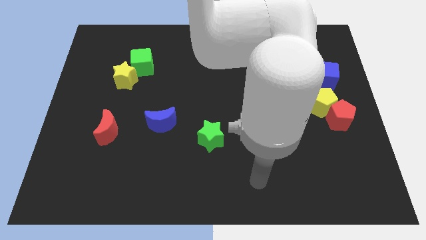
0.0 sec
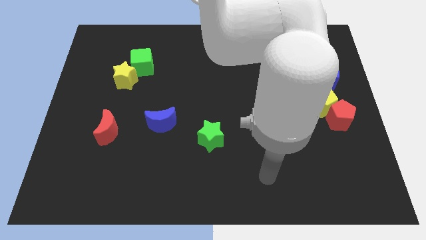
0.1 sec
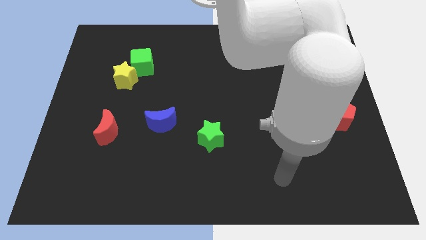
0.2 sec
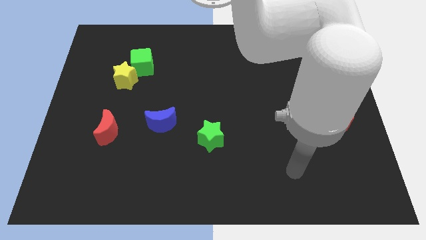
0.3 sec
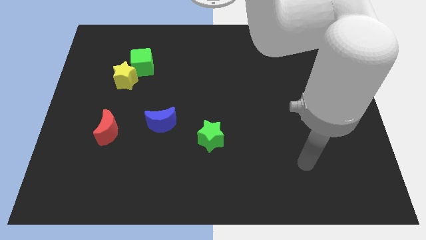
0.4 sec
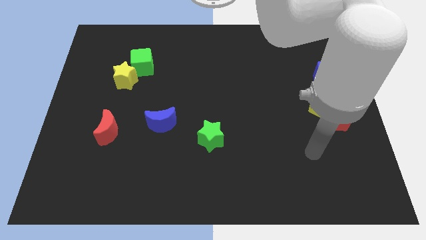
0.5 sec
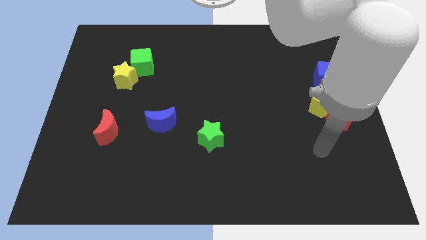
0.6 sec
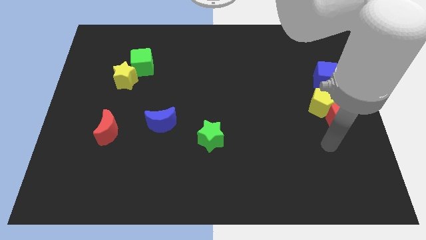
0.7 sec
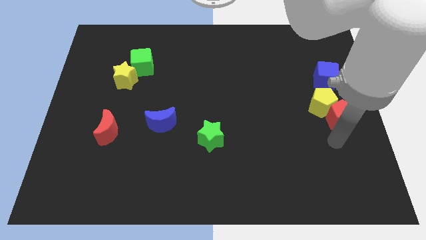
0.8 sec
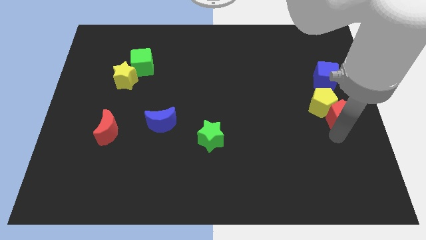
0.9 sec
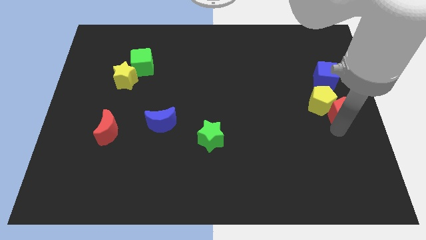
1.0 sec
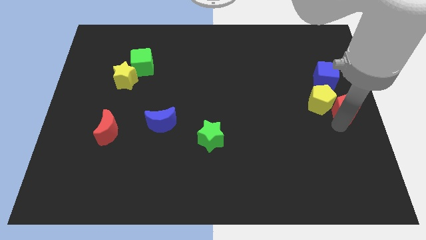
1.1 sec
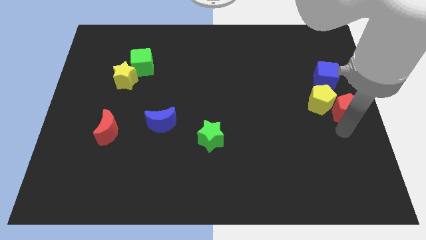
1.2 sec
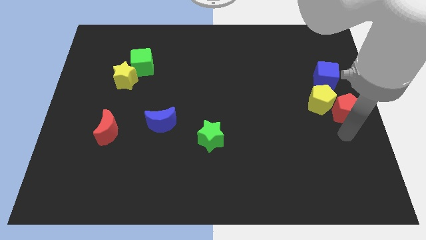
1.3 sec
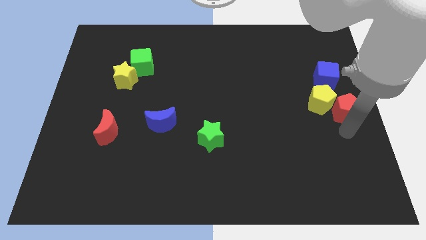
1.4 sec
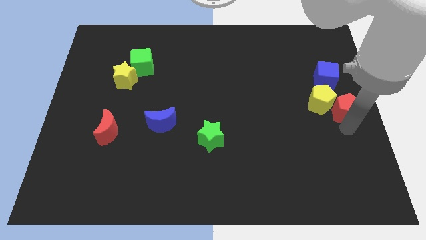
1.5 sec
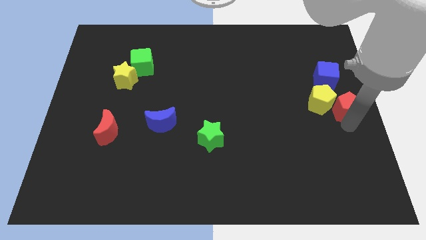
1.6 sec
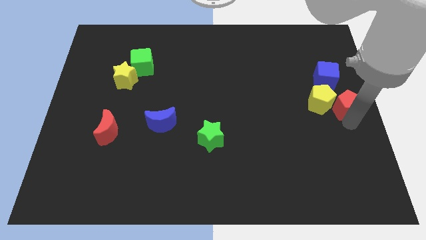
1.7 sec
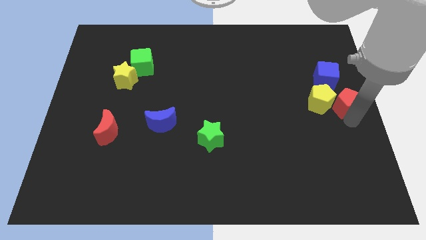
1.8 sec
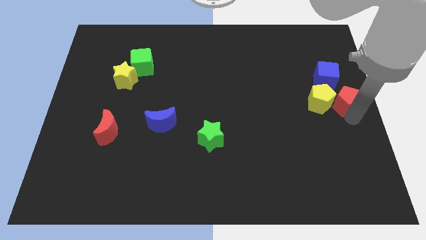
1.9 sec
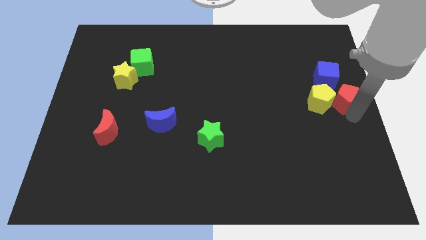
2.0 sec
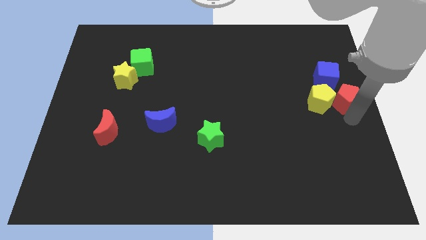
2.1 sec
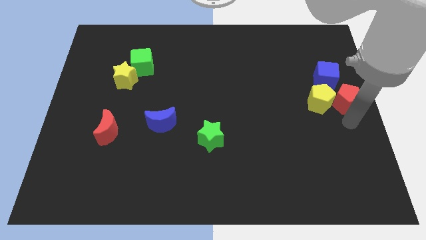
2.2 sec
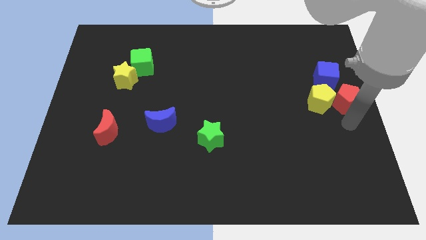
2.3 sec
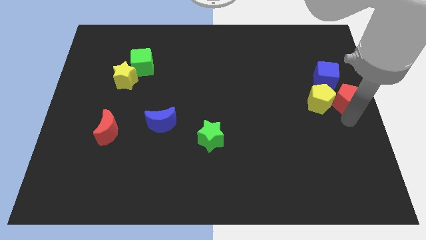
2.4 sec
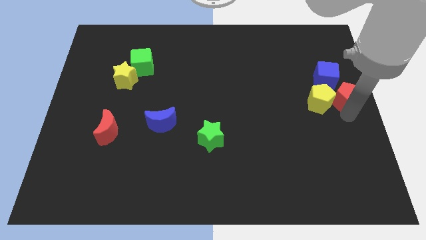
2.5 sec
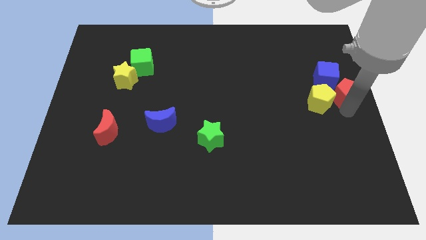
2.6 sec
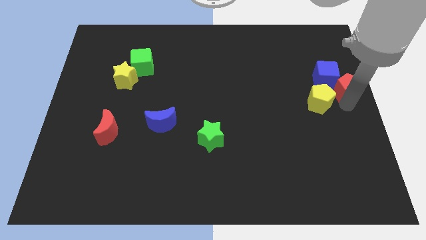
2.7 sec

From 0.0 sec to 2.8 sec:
slide the red pentagon upwards slightly

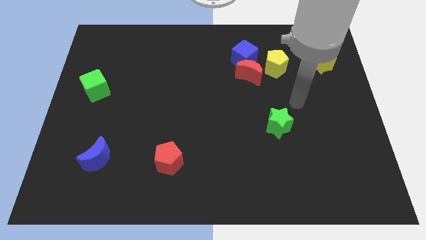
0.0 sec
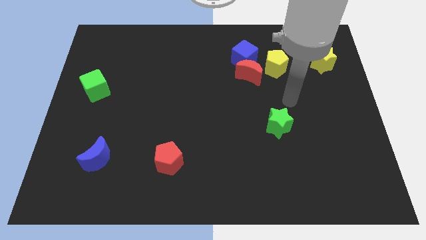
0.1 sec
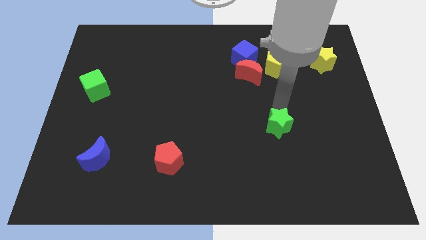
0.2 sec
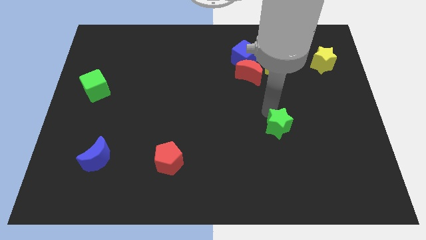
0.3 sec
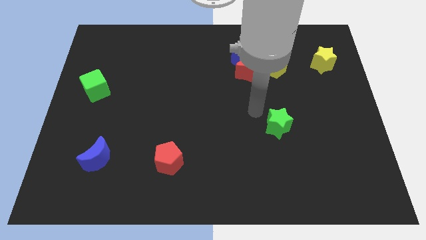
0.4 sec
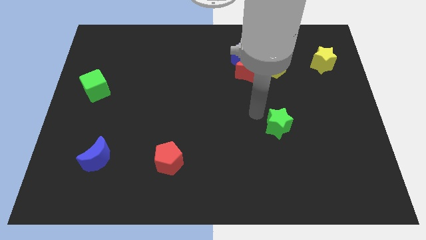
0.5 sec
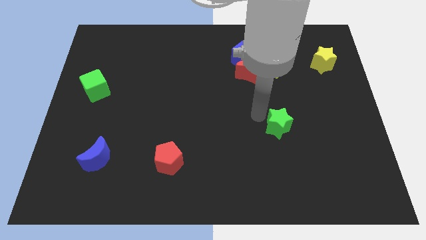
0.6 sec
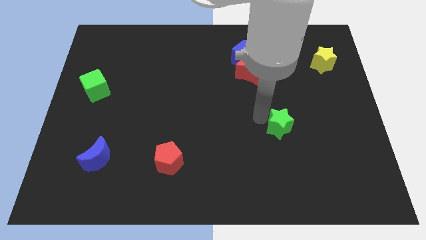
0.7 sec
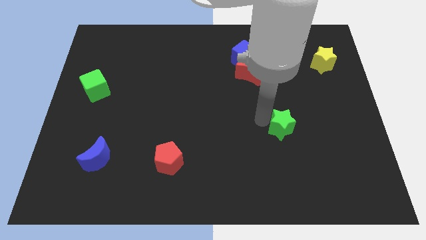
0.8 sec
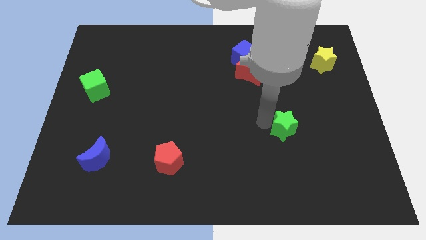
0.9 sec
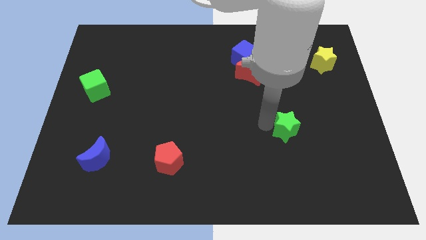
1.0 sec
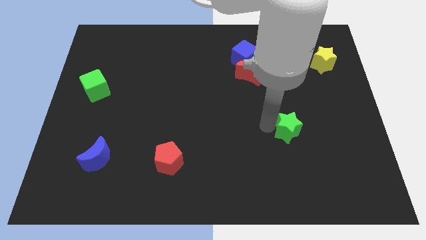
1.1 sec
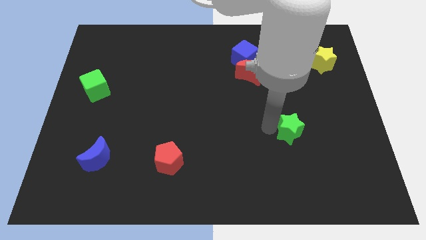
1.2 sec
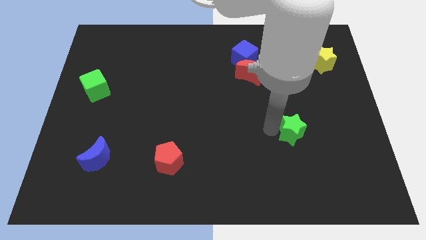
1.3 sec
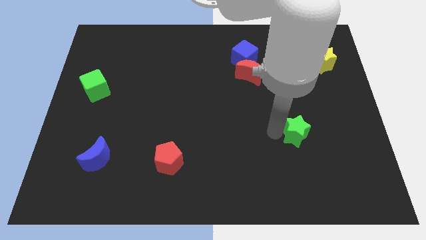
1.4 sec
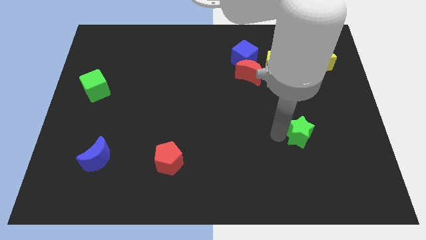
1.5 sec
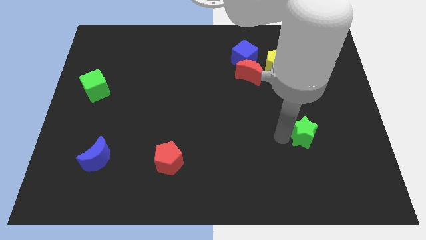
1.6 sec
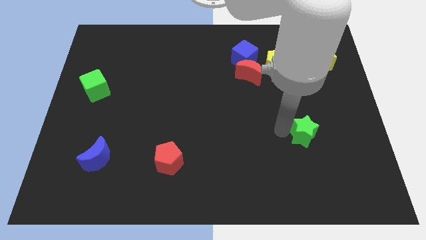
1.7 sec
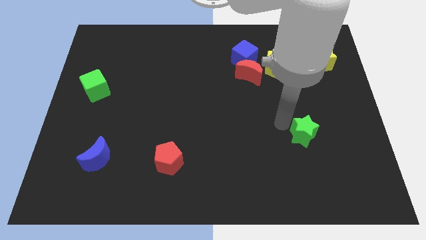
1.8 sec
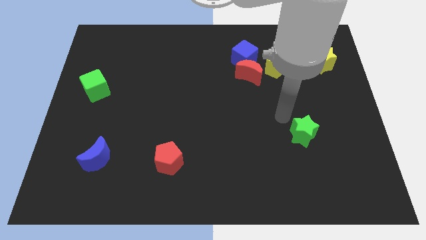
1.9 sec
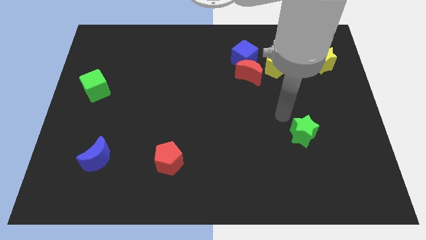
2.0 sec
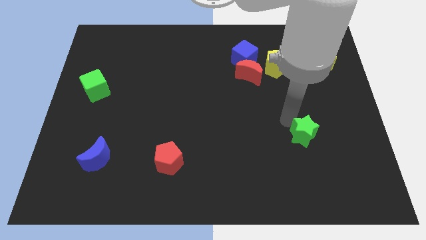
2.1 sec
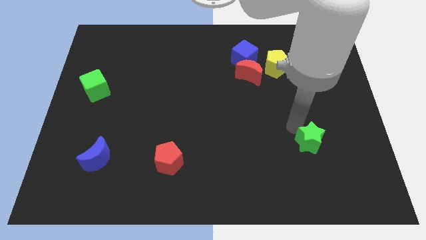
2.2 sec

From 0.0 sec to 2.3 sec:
slightly slide the green star diagonally down and to the right

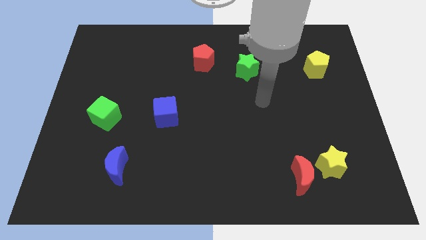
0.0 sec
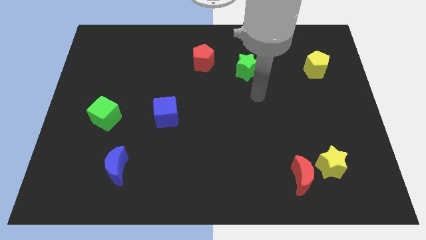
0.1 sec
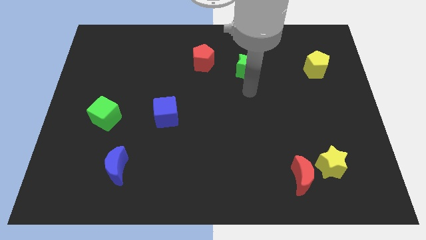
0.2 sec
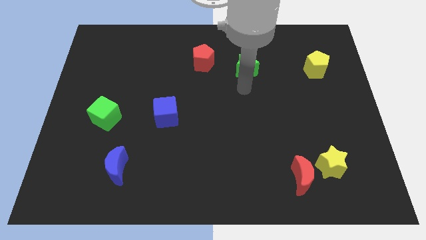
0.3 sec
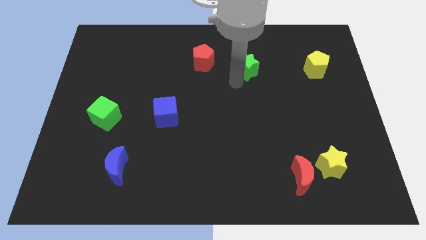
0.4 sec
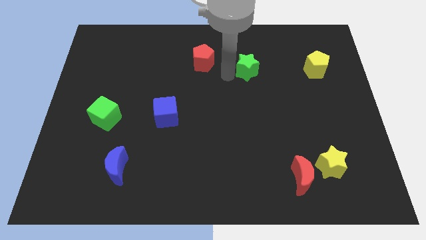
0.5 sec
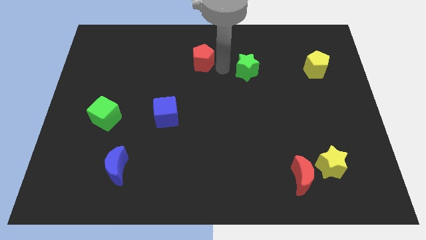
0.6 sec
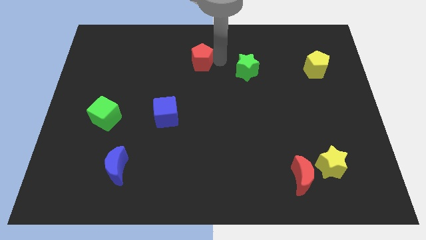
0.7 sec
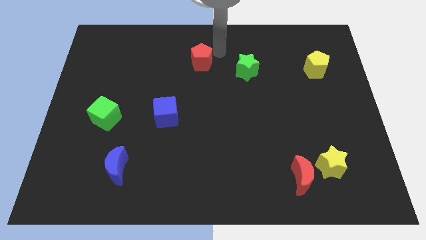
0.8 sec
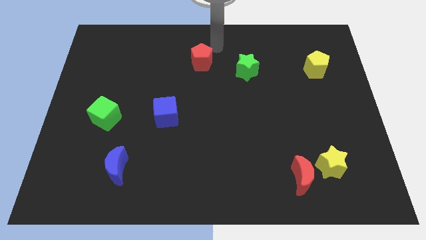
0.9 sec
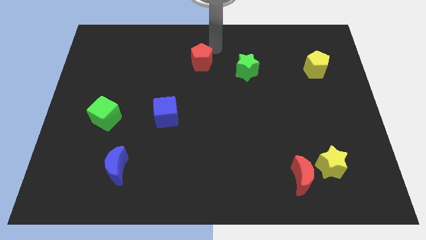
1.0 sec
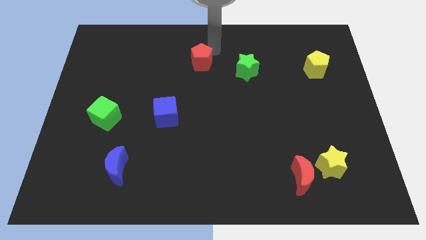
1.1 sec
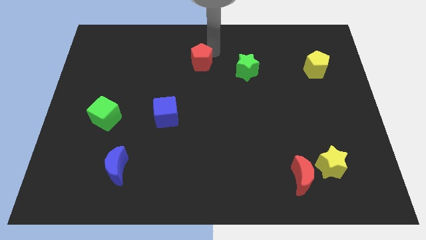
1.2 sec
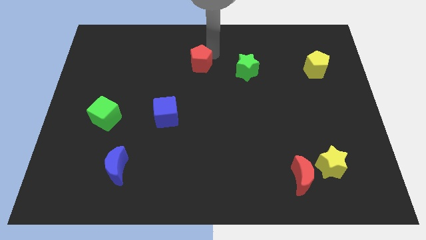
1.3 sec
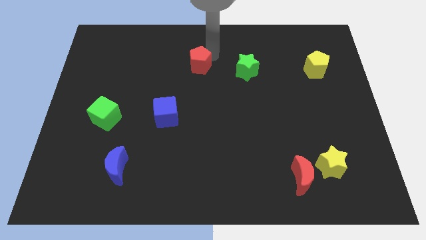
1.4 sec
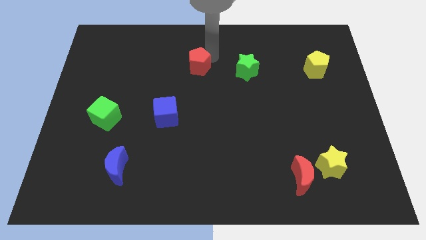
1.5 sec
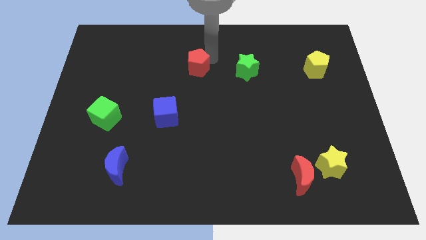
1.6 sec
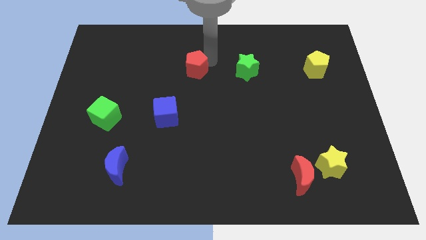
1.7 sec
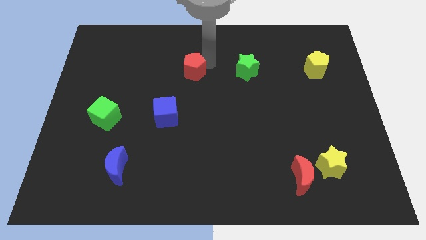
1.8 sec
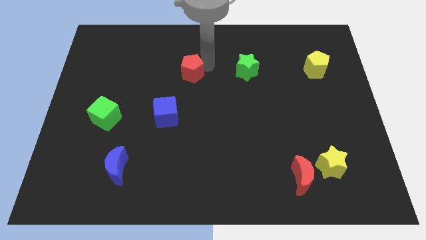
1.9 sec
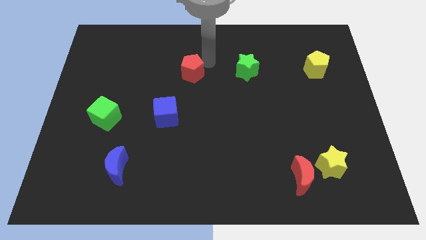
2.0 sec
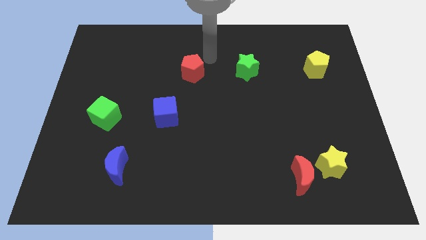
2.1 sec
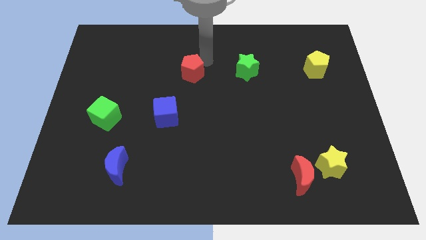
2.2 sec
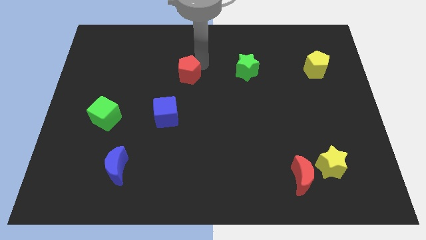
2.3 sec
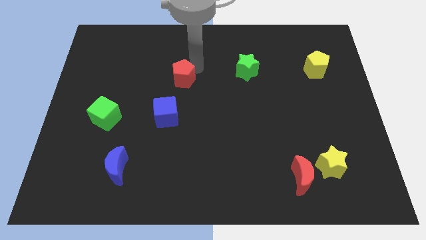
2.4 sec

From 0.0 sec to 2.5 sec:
slide the red pentagon down and left diagonally somewhat

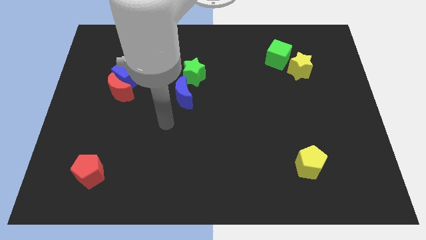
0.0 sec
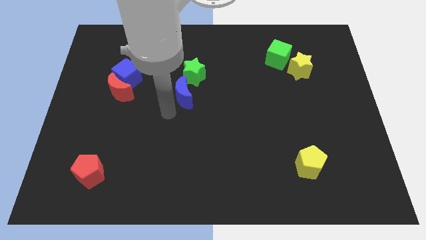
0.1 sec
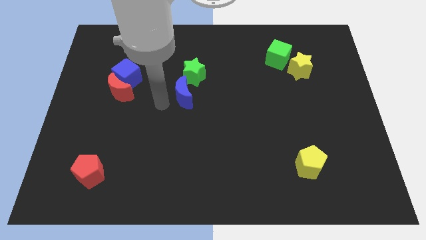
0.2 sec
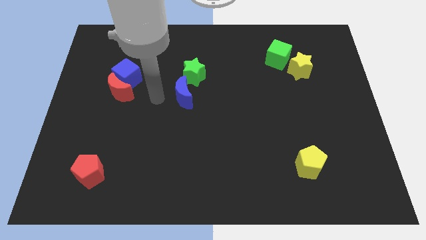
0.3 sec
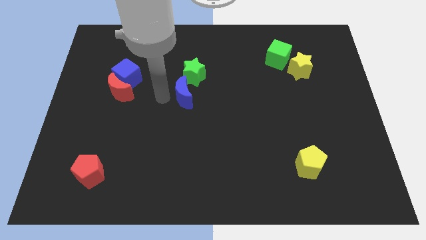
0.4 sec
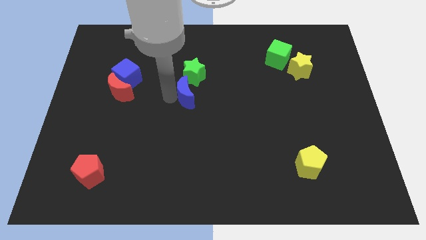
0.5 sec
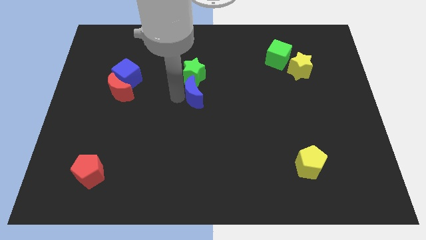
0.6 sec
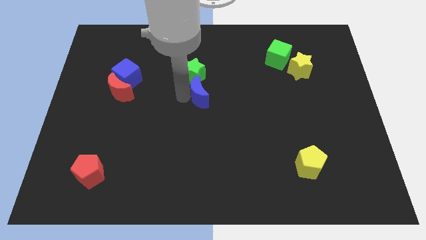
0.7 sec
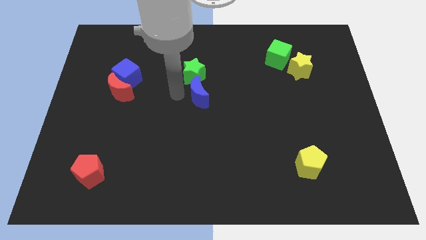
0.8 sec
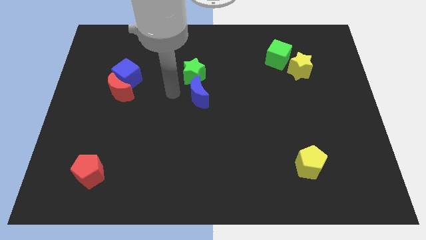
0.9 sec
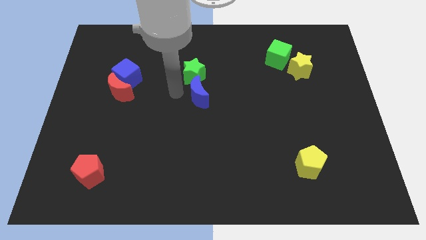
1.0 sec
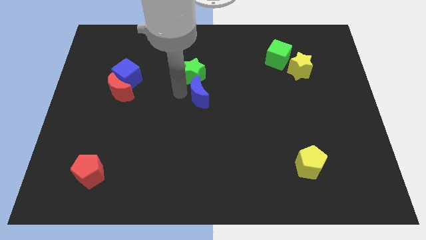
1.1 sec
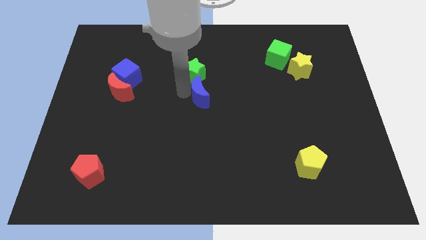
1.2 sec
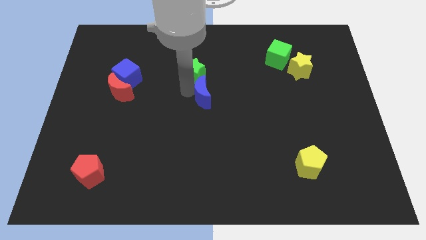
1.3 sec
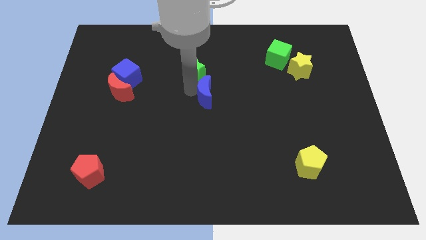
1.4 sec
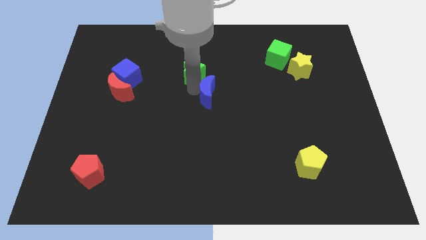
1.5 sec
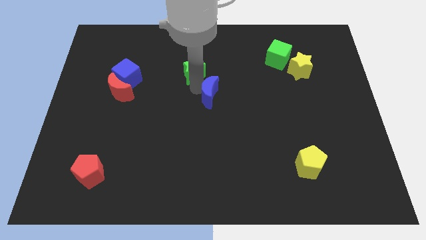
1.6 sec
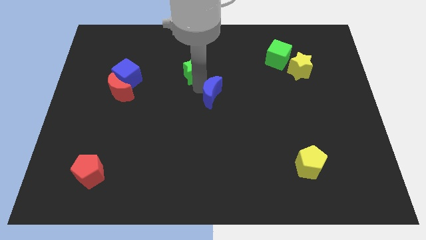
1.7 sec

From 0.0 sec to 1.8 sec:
move the blue moon to the right a little
